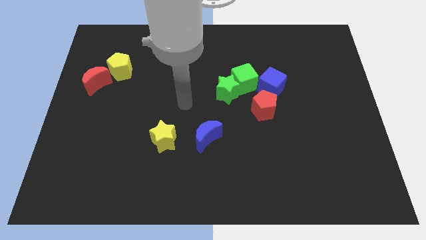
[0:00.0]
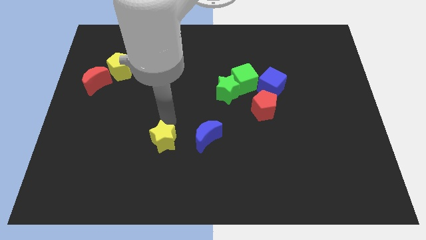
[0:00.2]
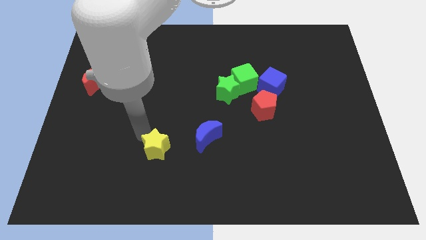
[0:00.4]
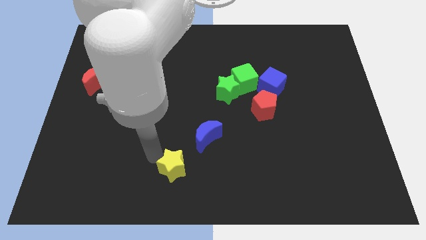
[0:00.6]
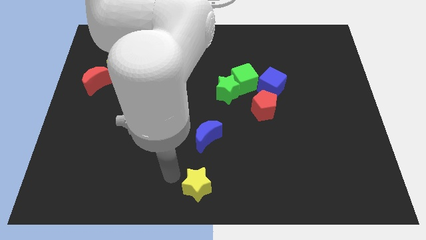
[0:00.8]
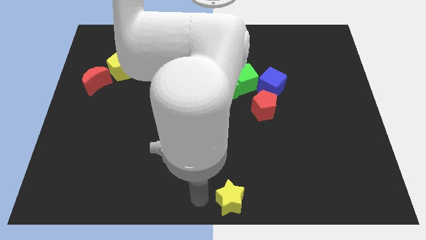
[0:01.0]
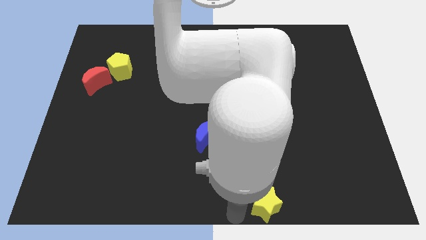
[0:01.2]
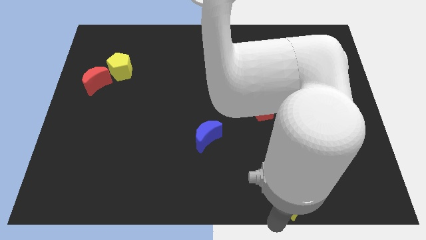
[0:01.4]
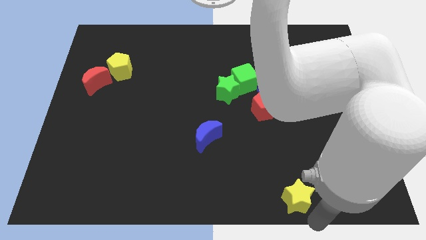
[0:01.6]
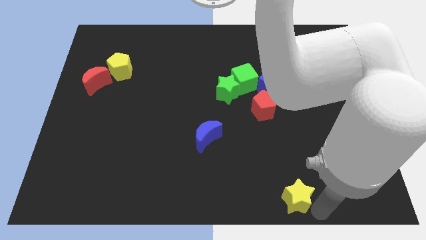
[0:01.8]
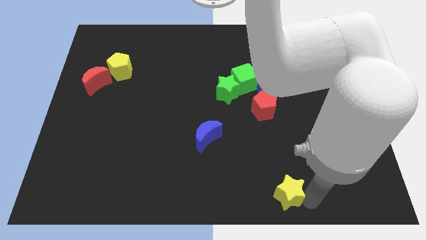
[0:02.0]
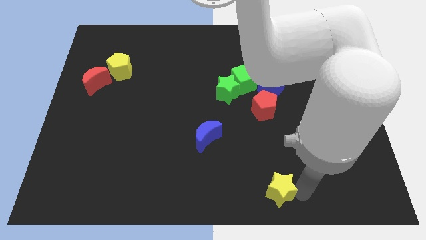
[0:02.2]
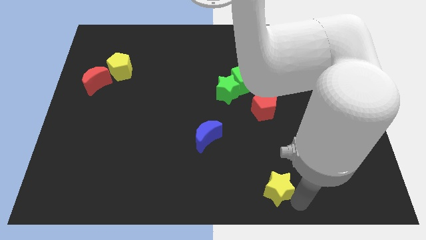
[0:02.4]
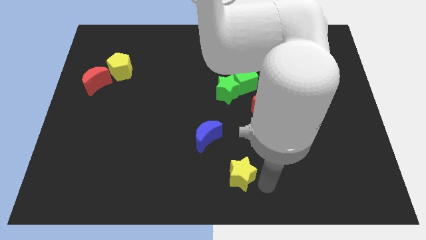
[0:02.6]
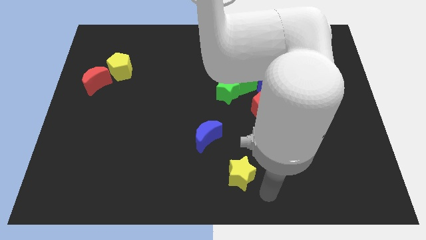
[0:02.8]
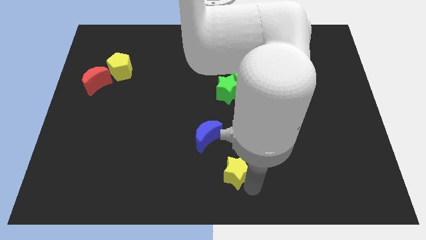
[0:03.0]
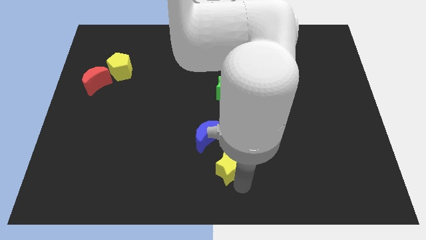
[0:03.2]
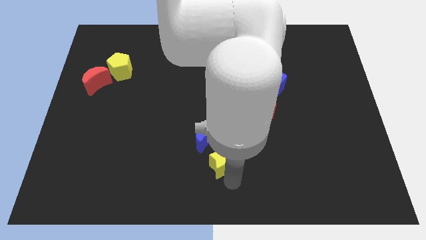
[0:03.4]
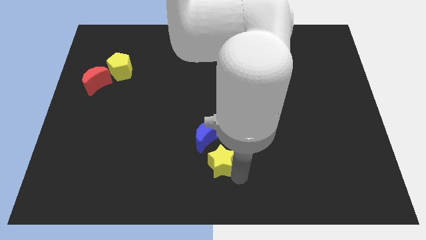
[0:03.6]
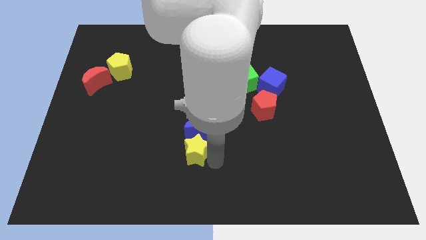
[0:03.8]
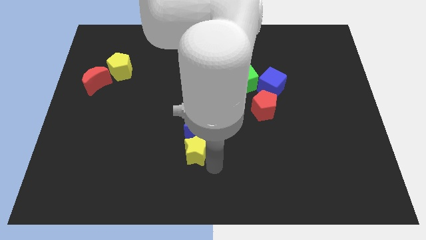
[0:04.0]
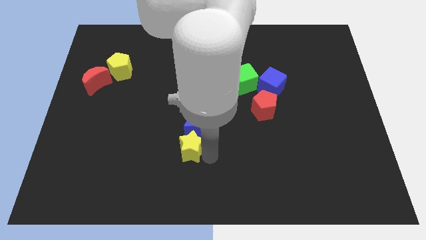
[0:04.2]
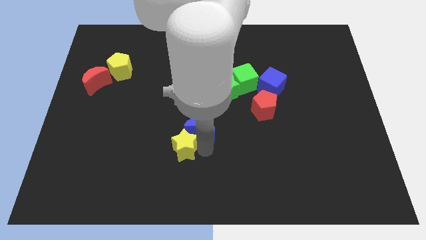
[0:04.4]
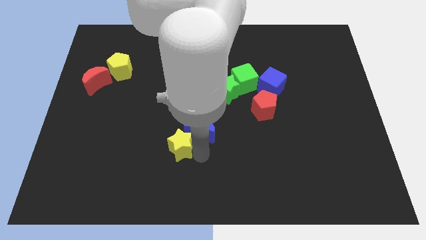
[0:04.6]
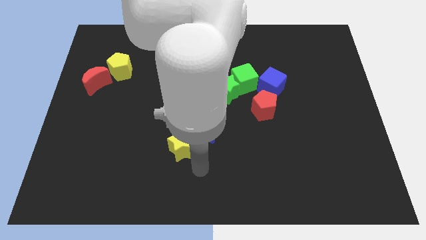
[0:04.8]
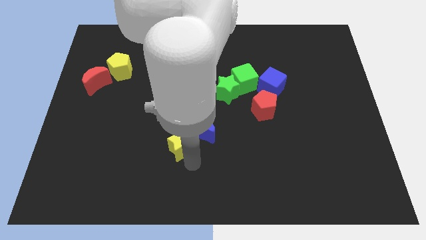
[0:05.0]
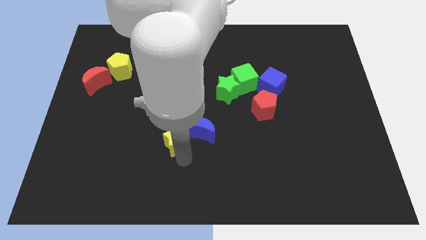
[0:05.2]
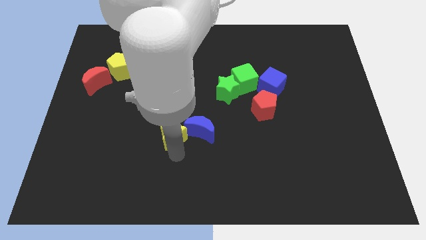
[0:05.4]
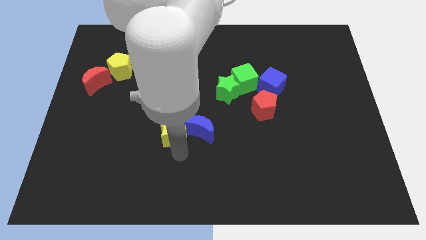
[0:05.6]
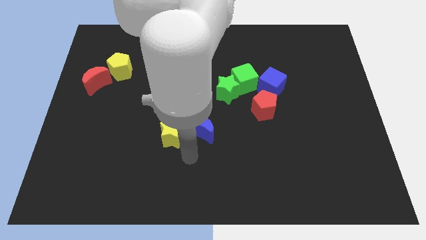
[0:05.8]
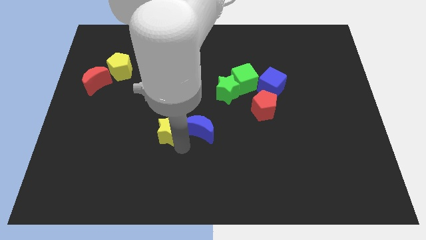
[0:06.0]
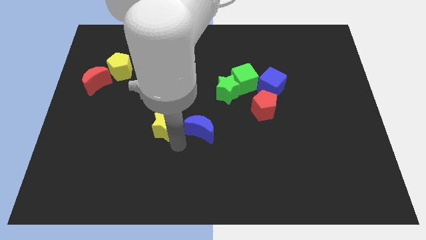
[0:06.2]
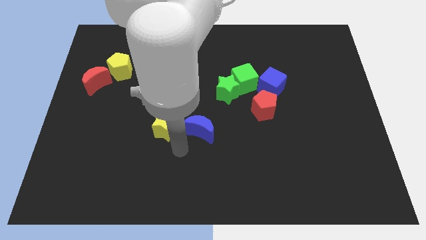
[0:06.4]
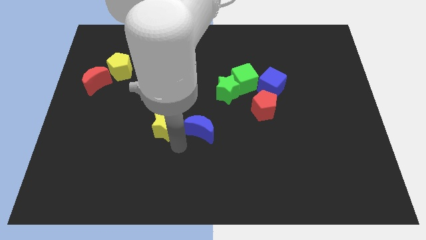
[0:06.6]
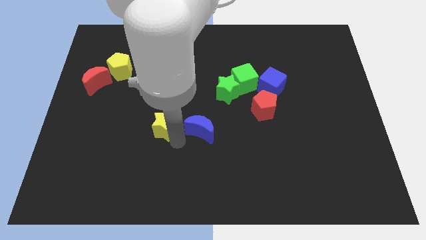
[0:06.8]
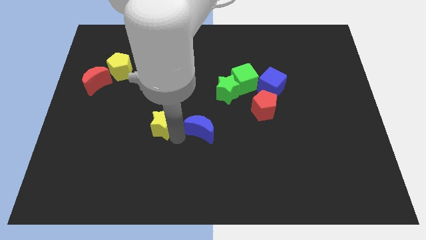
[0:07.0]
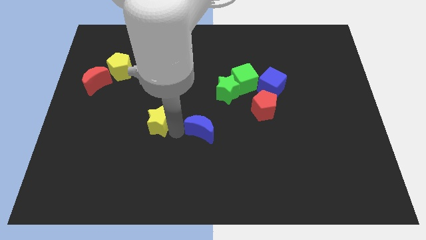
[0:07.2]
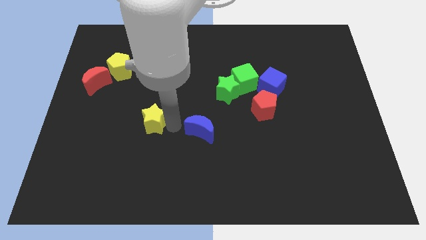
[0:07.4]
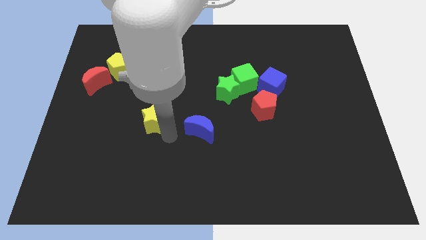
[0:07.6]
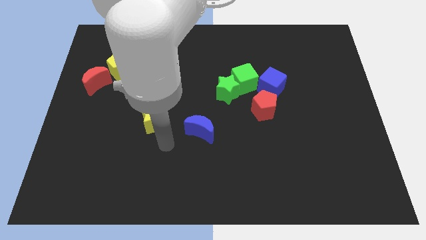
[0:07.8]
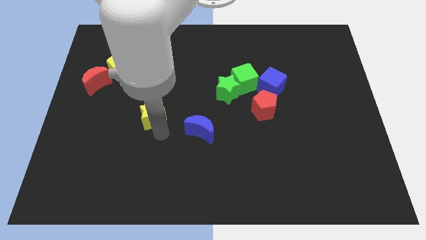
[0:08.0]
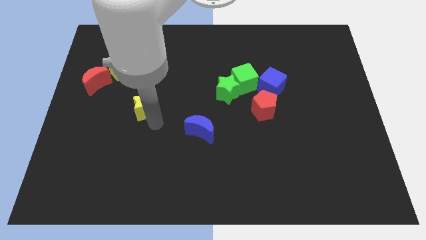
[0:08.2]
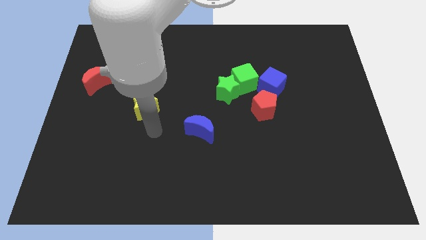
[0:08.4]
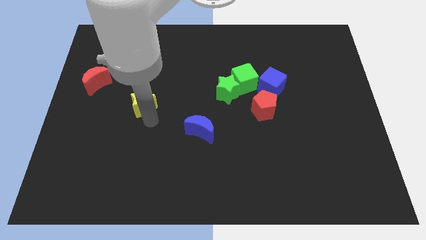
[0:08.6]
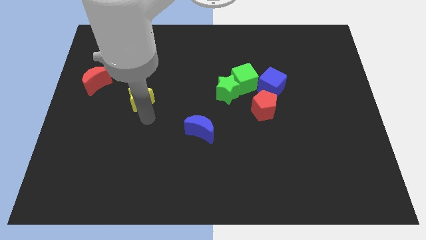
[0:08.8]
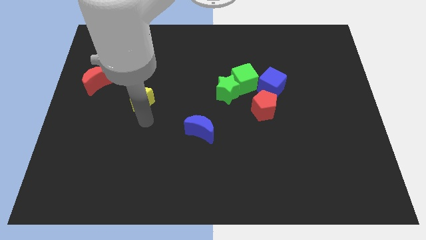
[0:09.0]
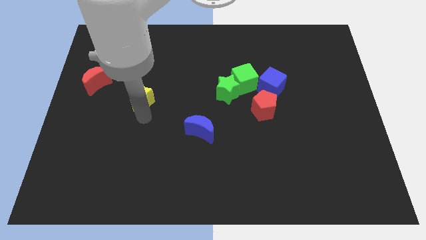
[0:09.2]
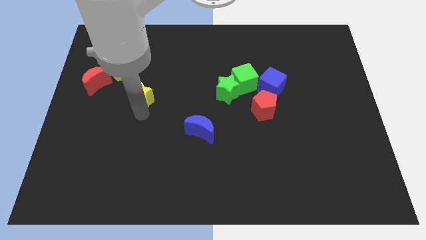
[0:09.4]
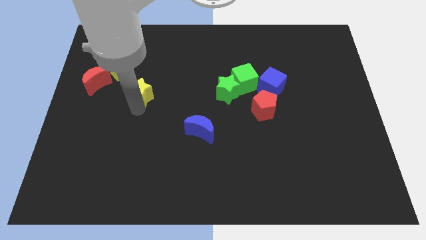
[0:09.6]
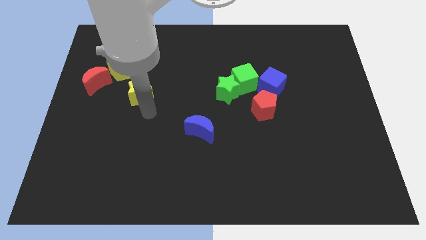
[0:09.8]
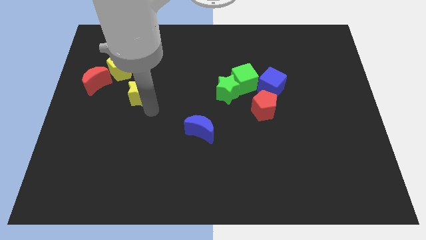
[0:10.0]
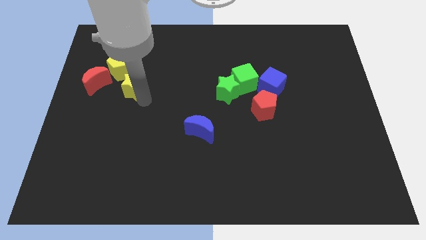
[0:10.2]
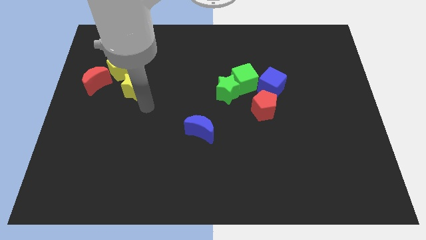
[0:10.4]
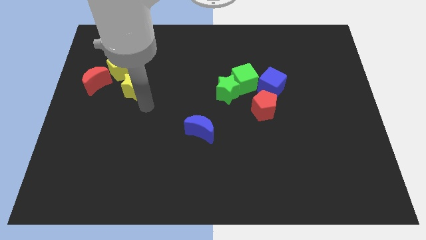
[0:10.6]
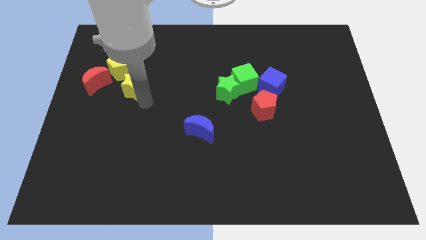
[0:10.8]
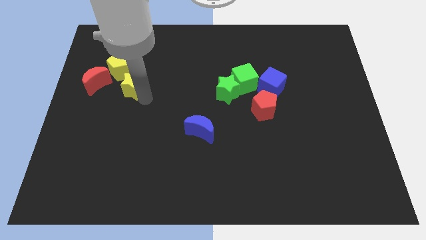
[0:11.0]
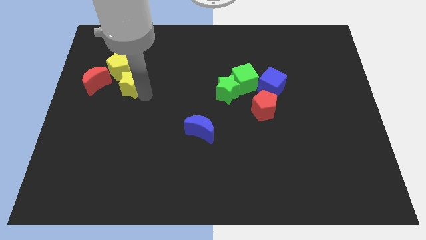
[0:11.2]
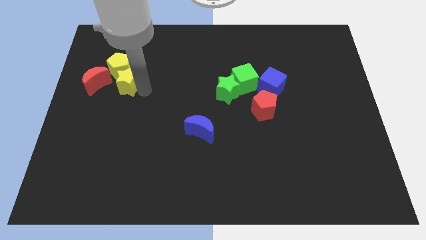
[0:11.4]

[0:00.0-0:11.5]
move the yellow star close to the yellow pentagon

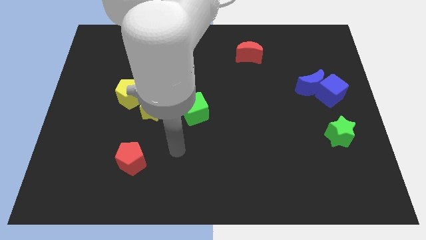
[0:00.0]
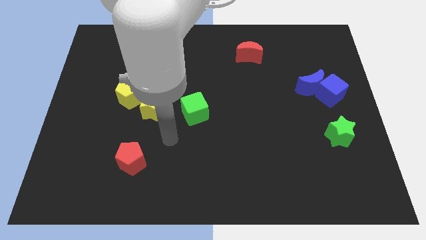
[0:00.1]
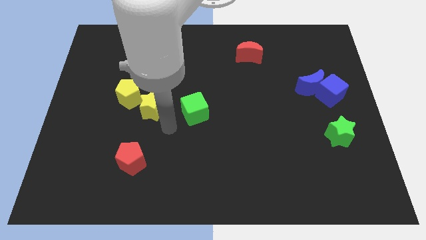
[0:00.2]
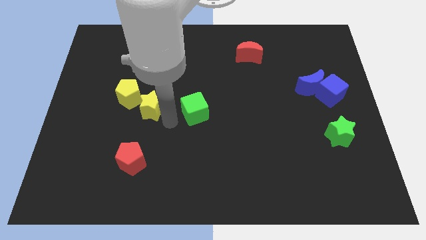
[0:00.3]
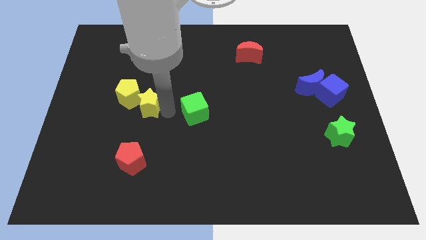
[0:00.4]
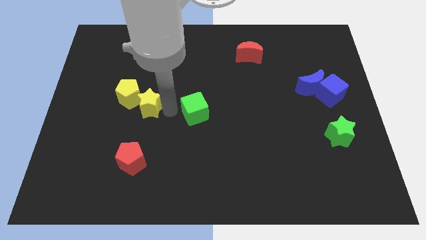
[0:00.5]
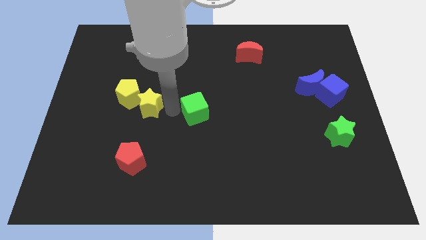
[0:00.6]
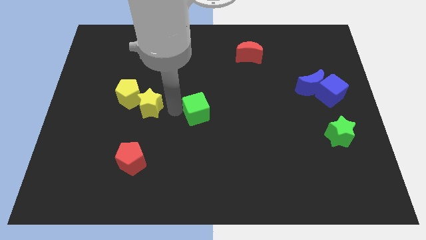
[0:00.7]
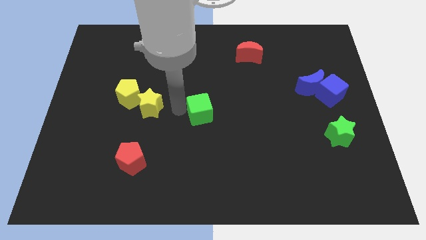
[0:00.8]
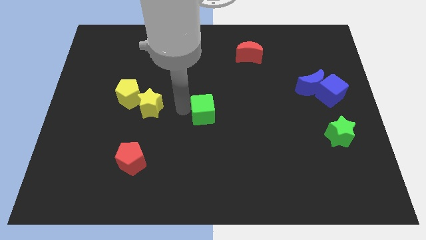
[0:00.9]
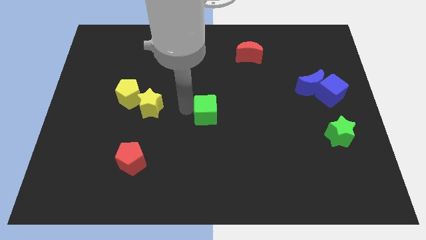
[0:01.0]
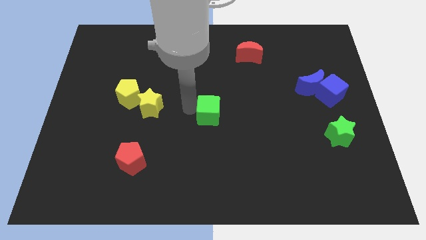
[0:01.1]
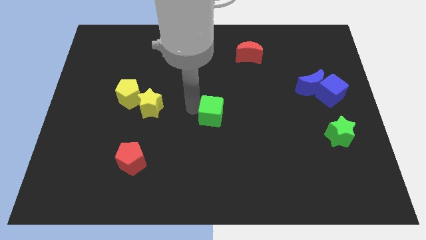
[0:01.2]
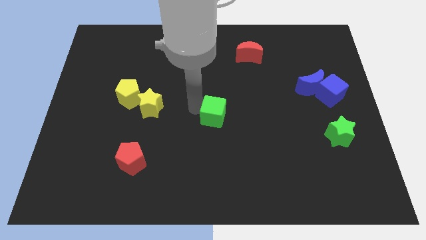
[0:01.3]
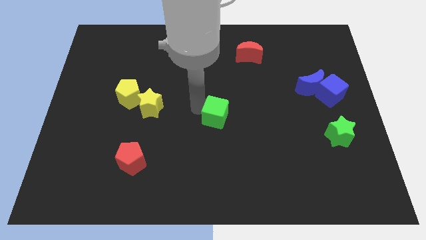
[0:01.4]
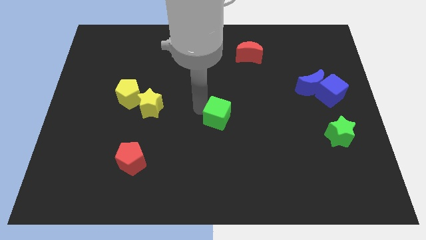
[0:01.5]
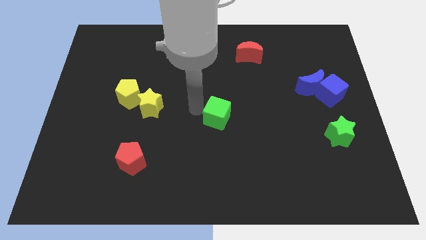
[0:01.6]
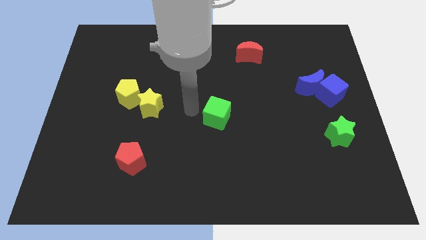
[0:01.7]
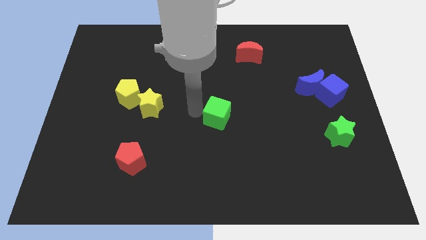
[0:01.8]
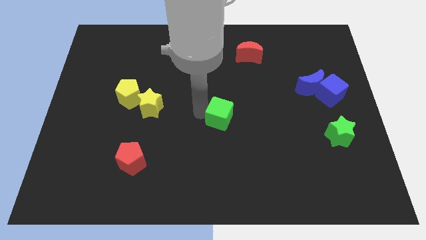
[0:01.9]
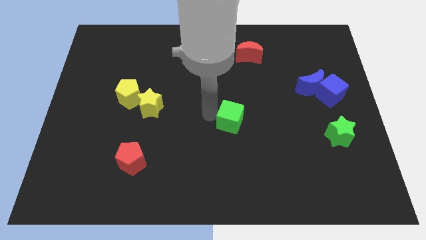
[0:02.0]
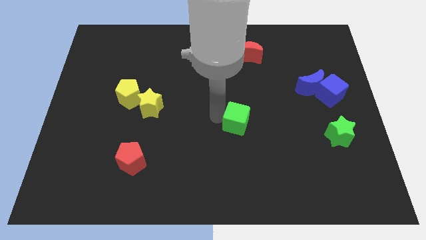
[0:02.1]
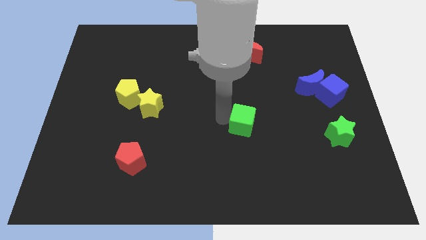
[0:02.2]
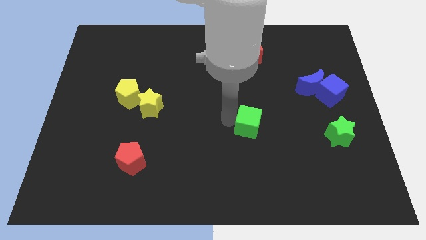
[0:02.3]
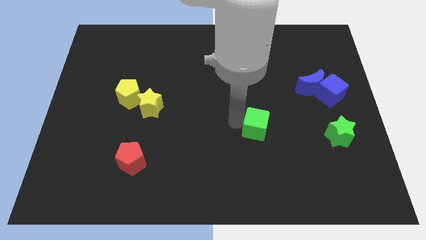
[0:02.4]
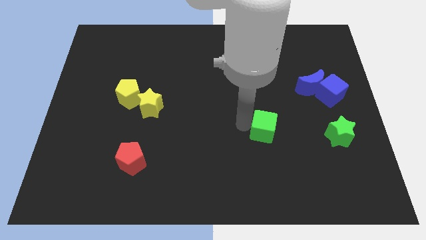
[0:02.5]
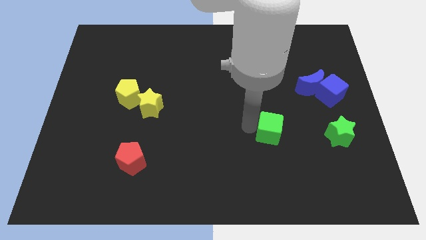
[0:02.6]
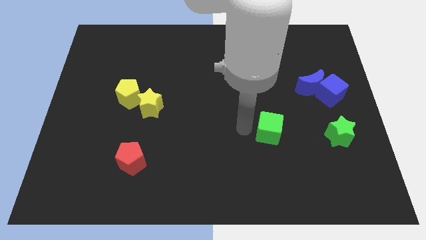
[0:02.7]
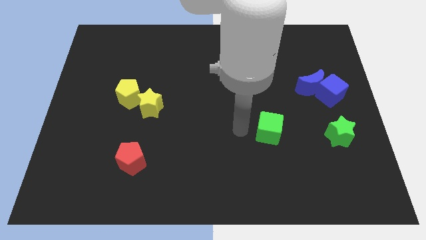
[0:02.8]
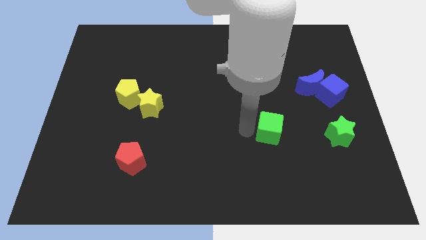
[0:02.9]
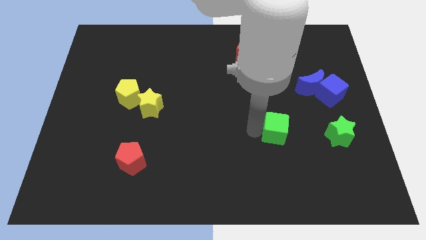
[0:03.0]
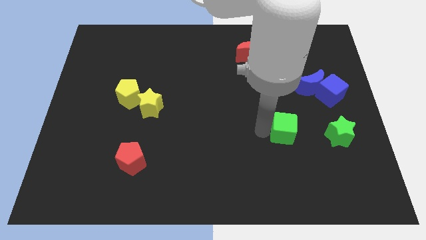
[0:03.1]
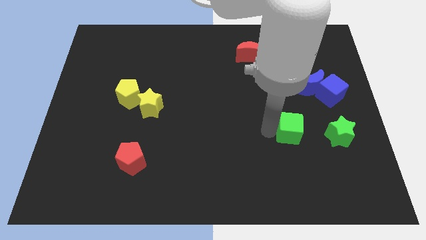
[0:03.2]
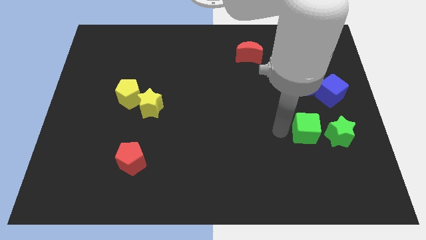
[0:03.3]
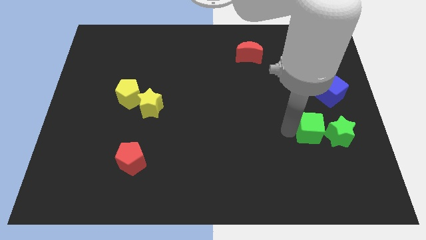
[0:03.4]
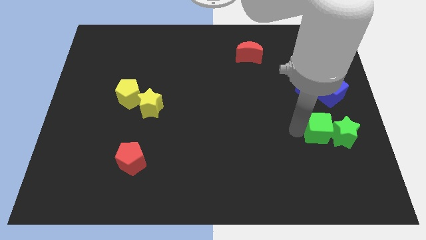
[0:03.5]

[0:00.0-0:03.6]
move the green cube next to the green star
